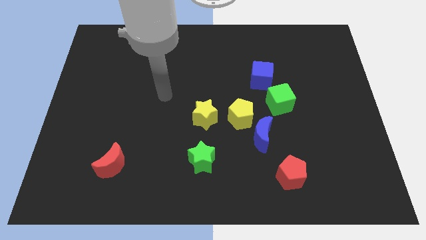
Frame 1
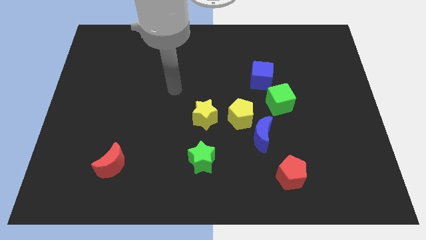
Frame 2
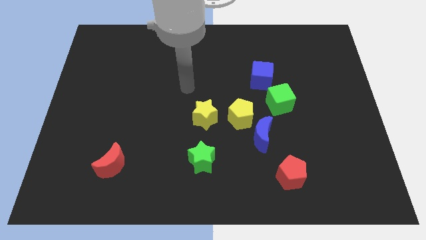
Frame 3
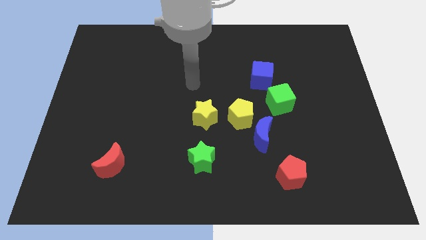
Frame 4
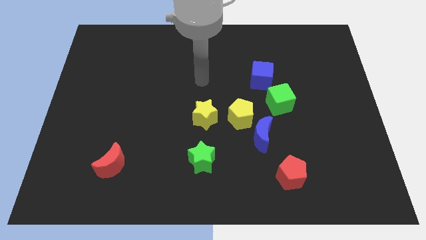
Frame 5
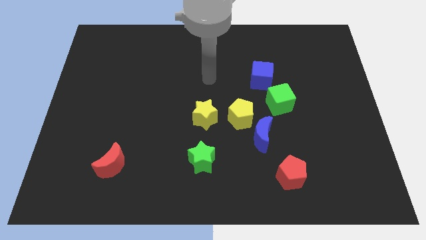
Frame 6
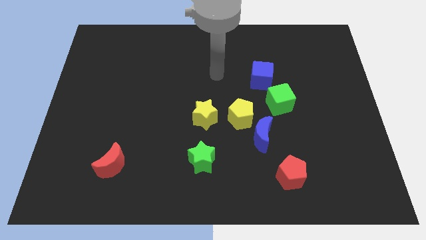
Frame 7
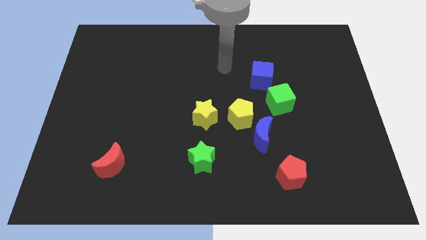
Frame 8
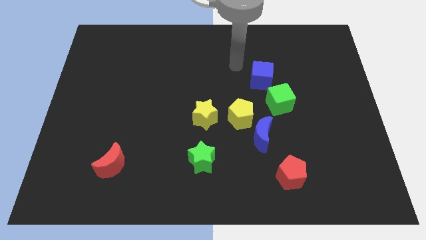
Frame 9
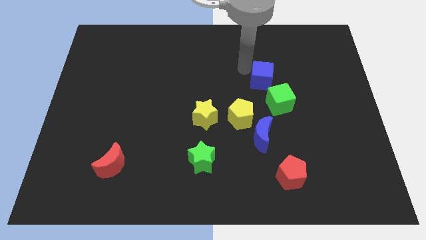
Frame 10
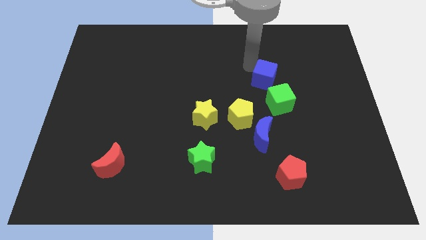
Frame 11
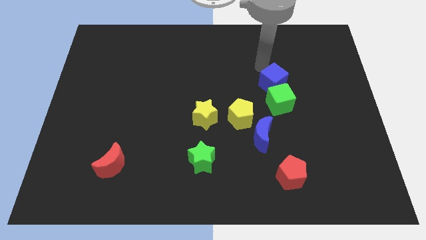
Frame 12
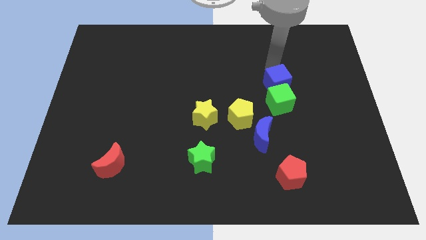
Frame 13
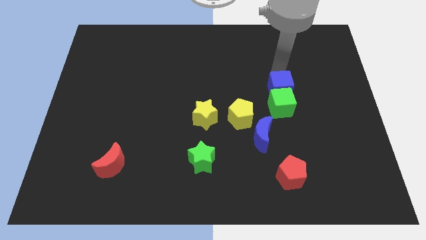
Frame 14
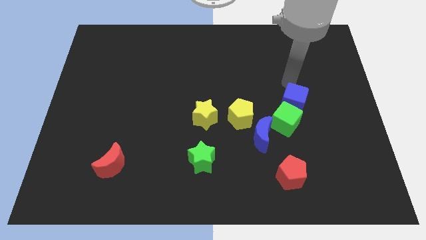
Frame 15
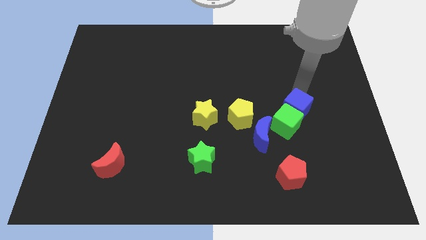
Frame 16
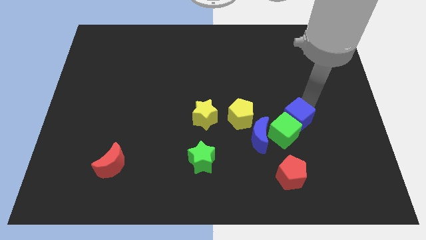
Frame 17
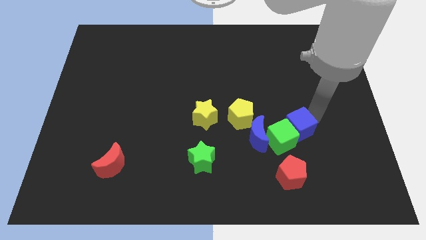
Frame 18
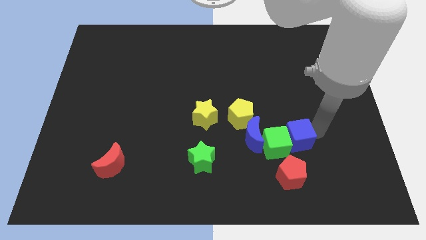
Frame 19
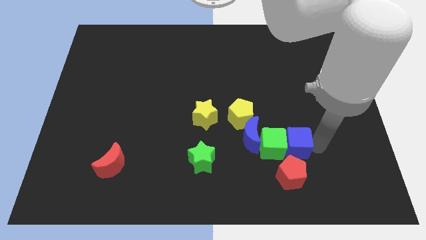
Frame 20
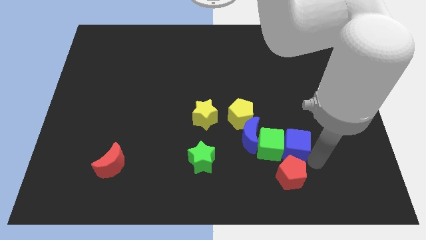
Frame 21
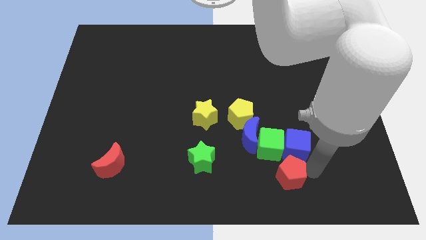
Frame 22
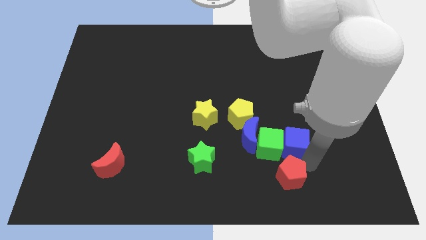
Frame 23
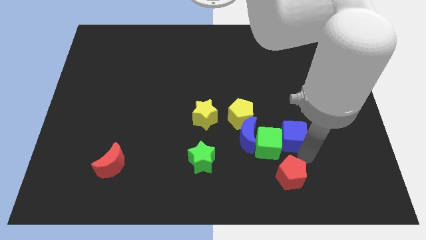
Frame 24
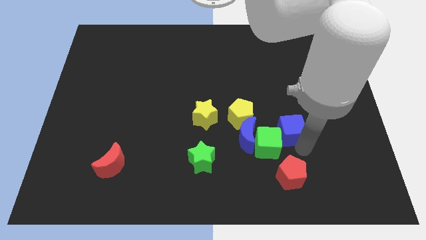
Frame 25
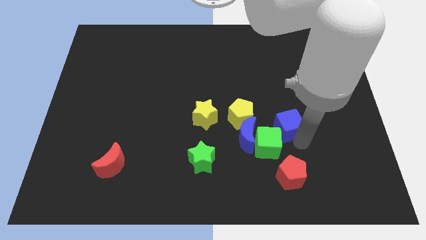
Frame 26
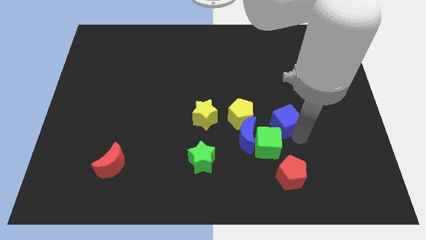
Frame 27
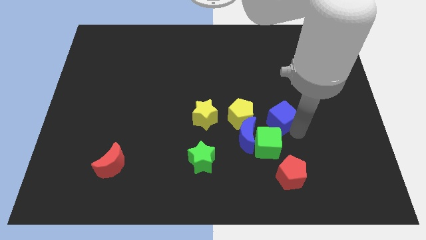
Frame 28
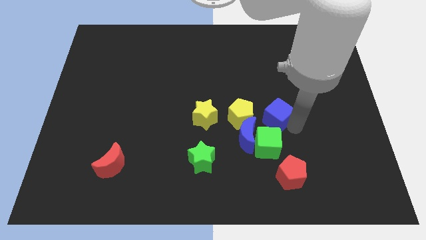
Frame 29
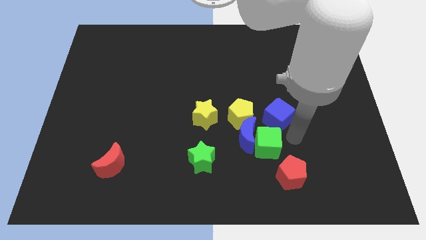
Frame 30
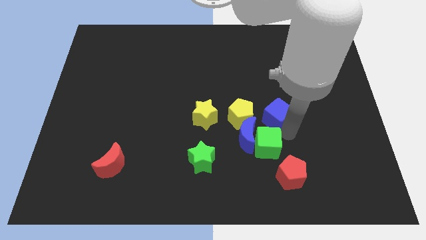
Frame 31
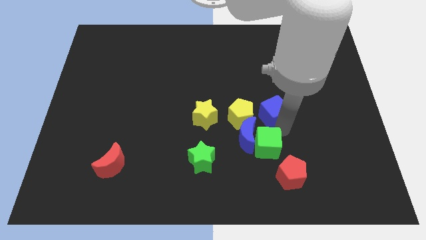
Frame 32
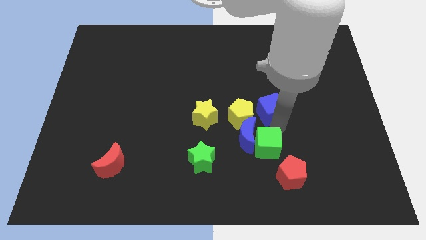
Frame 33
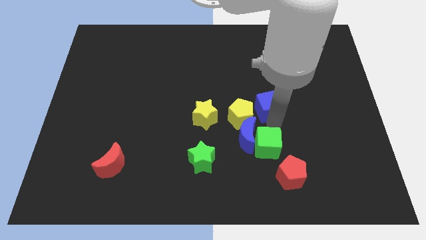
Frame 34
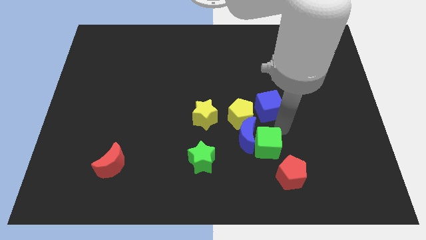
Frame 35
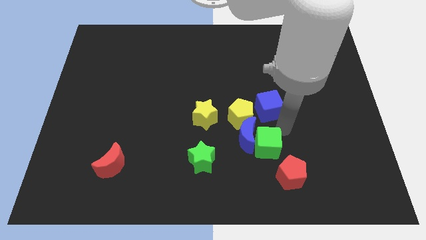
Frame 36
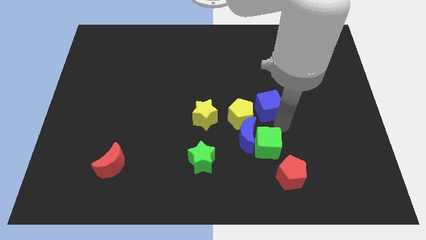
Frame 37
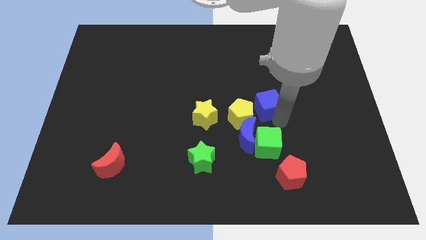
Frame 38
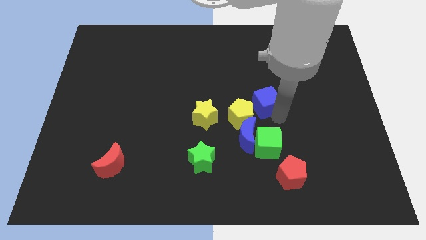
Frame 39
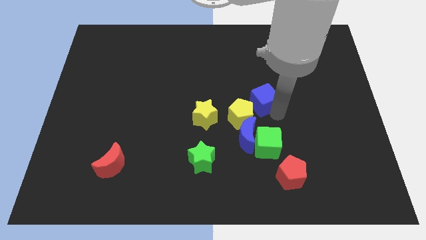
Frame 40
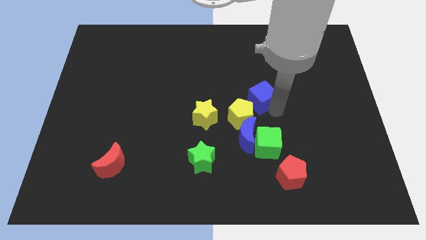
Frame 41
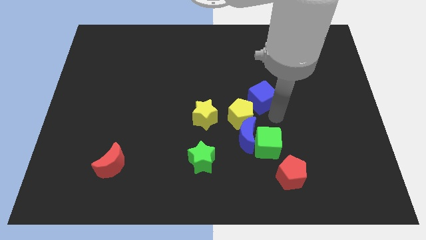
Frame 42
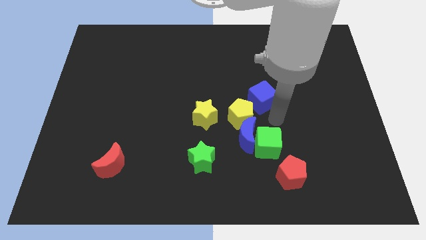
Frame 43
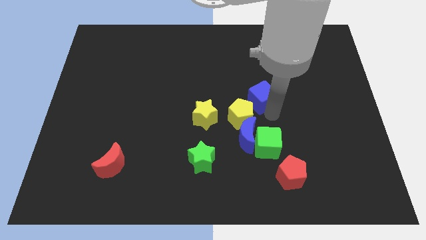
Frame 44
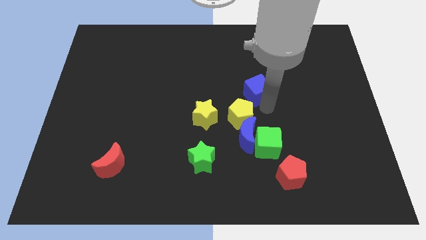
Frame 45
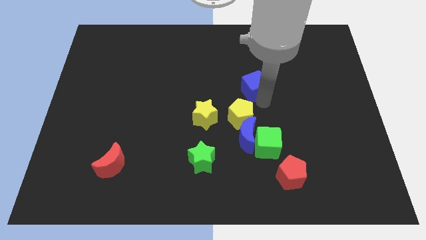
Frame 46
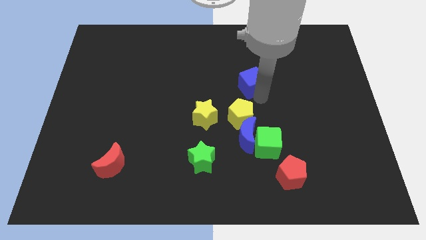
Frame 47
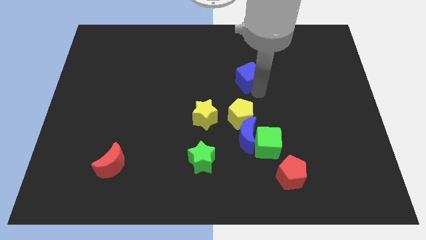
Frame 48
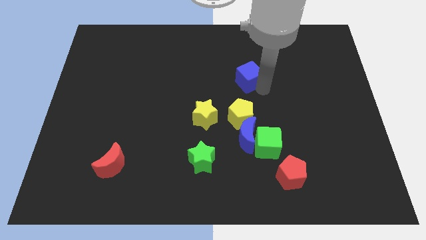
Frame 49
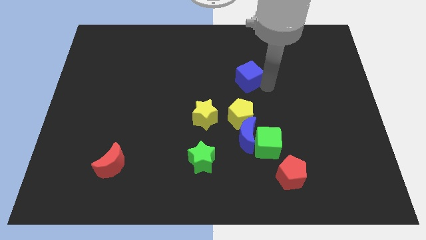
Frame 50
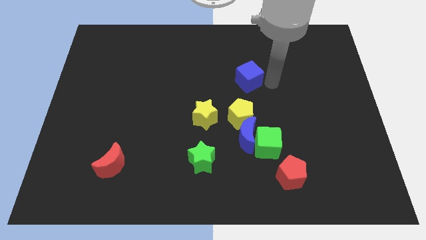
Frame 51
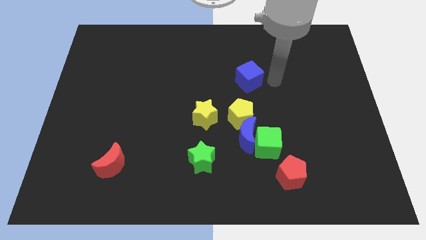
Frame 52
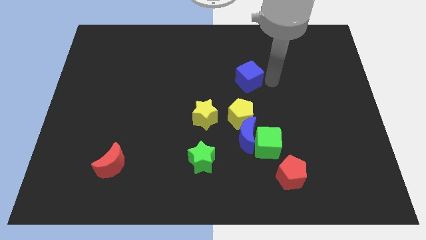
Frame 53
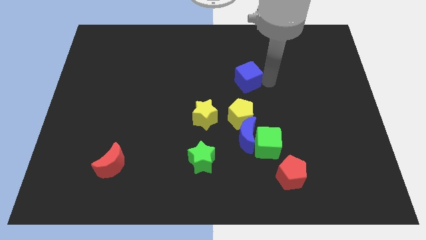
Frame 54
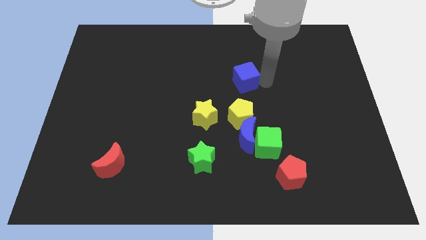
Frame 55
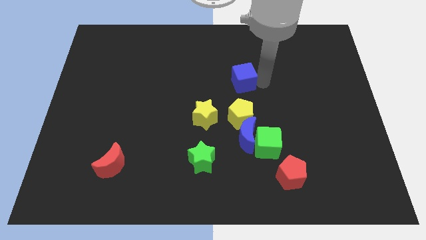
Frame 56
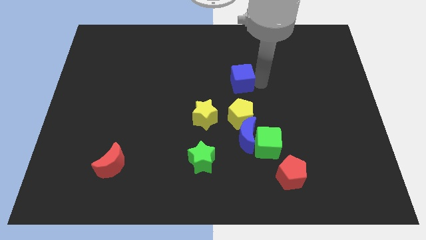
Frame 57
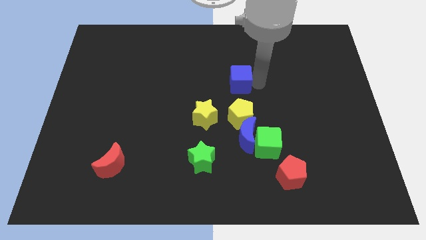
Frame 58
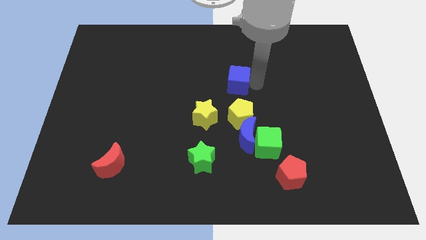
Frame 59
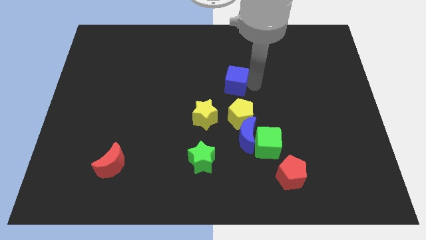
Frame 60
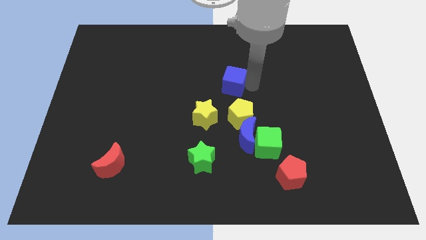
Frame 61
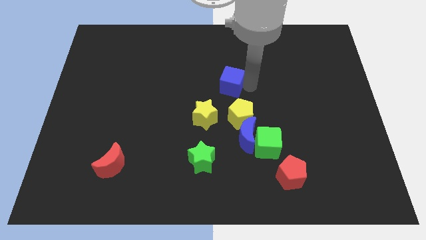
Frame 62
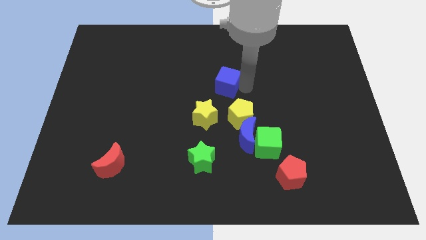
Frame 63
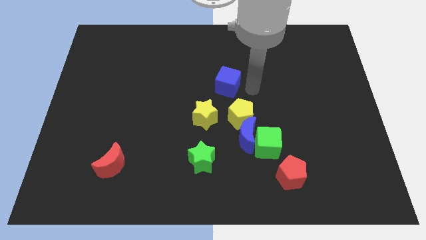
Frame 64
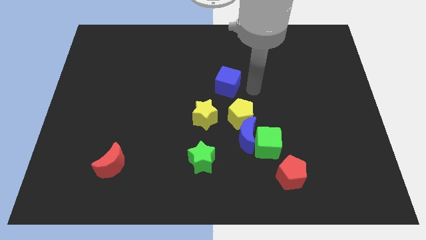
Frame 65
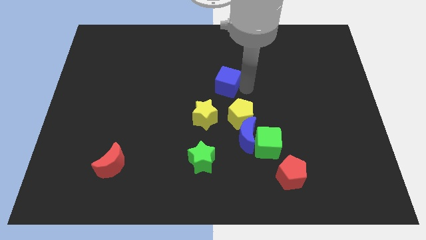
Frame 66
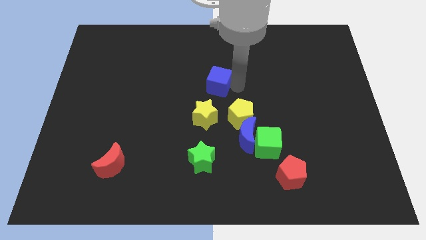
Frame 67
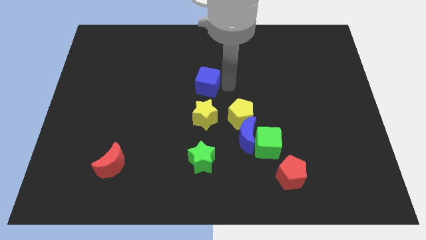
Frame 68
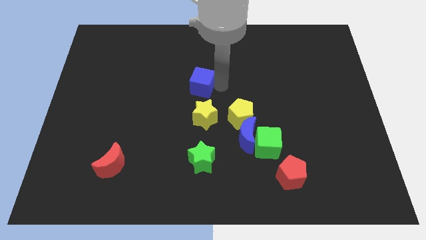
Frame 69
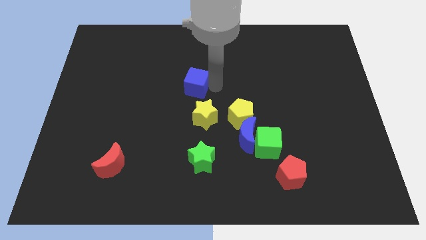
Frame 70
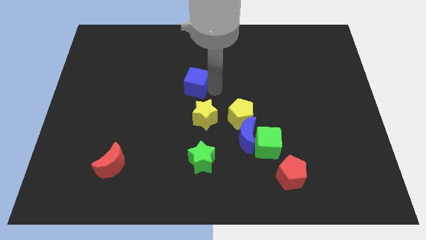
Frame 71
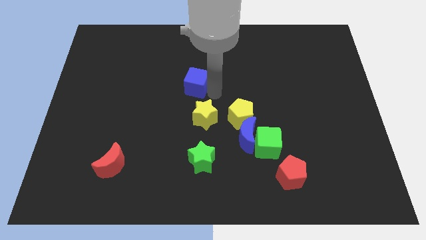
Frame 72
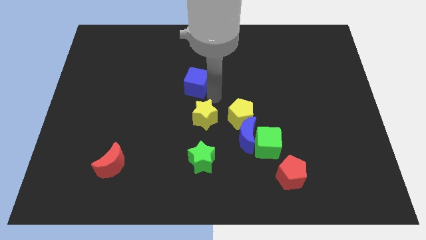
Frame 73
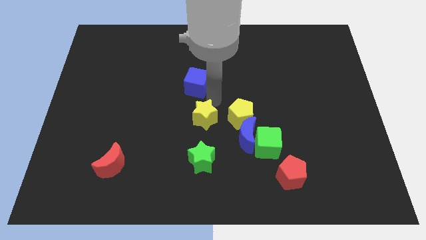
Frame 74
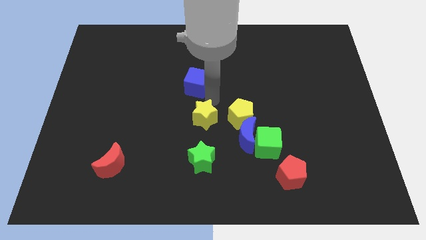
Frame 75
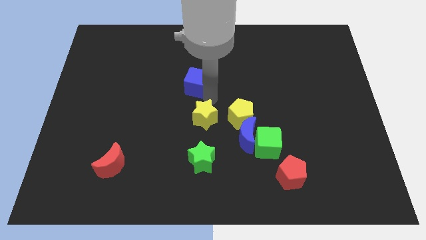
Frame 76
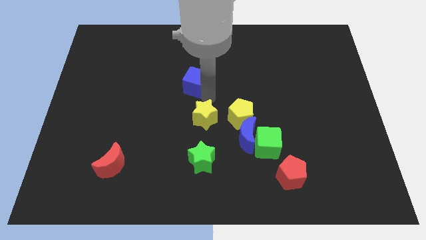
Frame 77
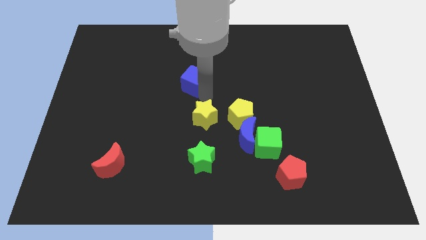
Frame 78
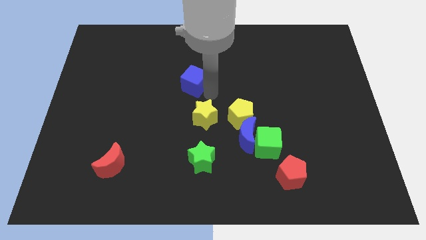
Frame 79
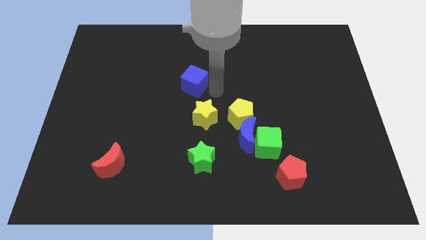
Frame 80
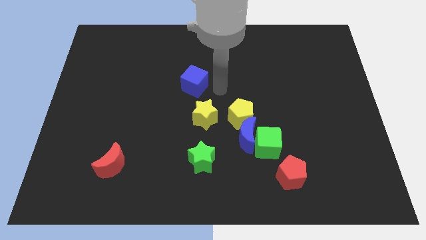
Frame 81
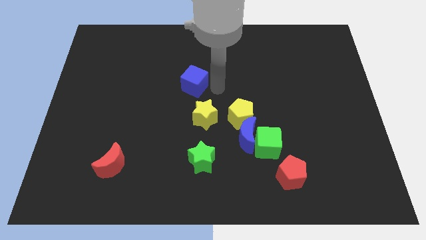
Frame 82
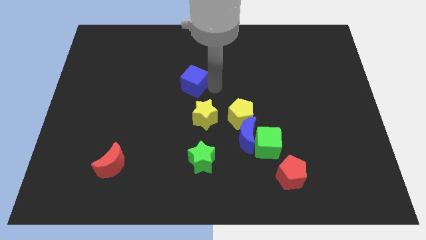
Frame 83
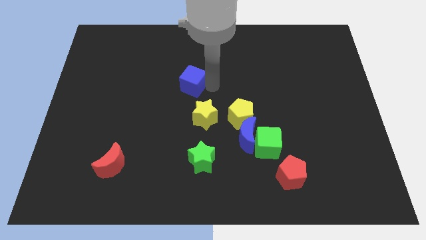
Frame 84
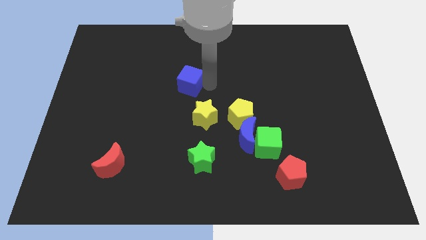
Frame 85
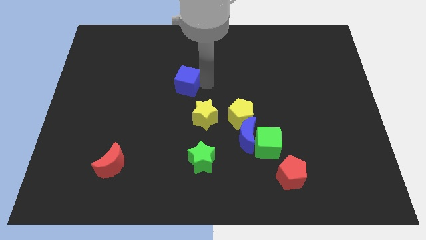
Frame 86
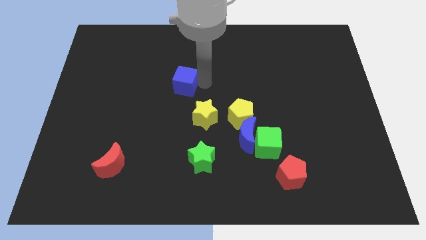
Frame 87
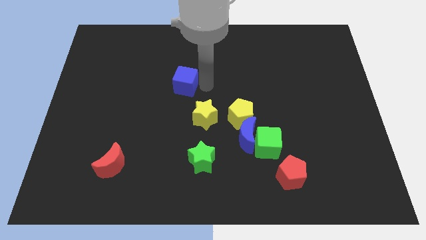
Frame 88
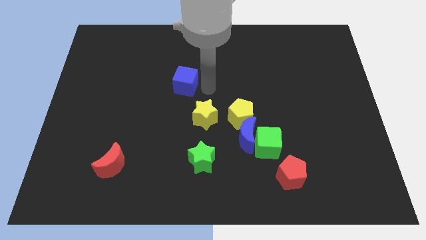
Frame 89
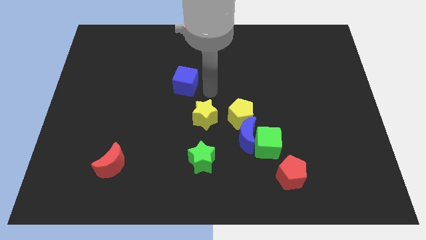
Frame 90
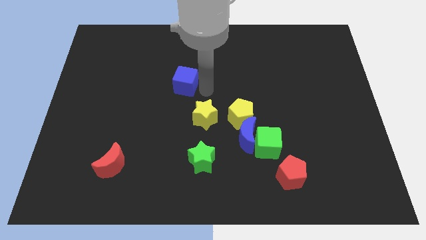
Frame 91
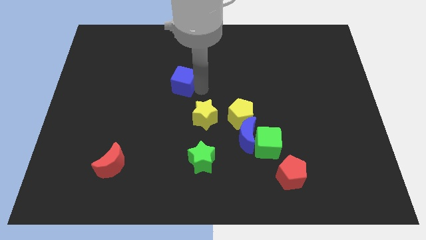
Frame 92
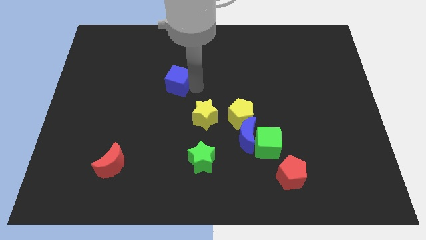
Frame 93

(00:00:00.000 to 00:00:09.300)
slide the blue cube to the left
